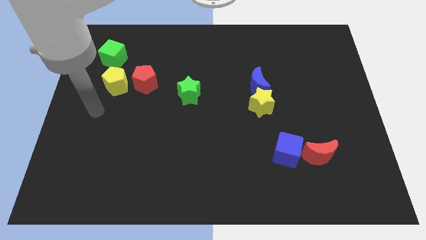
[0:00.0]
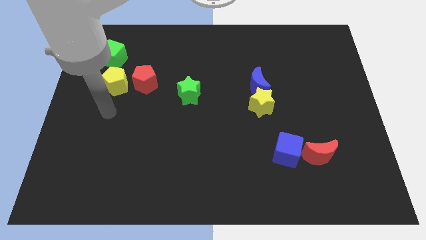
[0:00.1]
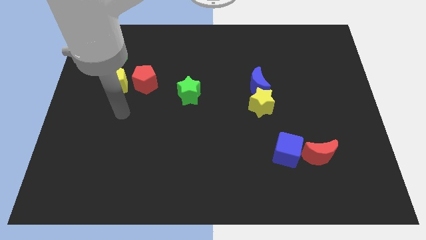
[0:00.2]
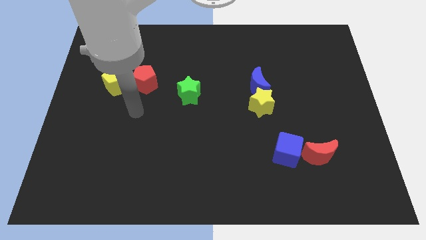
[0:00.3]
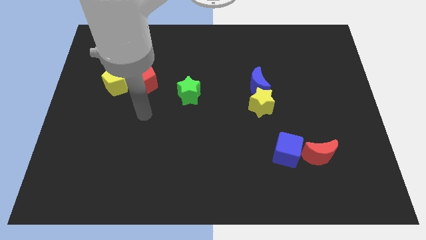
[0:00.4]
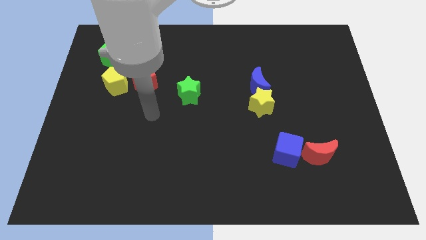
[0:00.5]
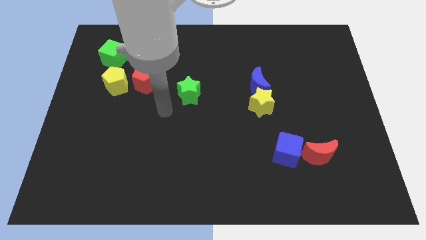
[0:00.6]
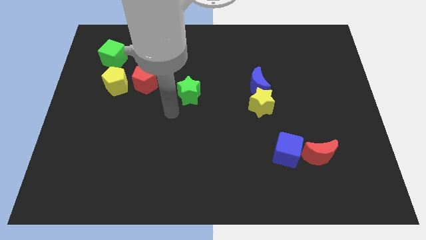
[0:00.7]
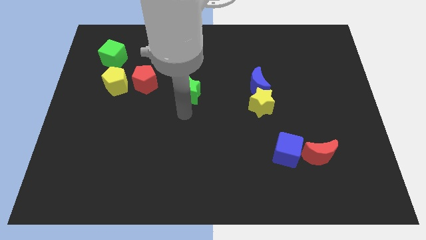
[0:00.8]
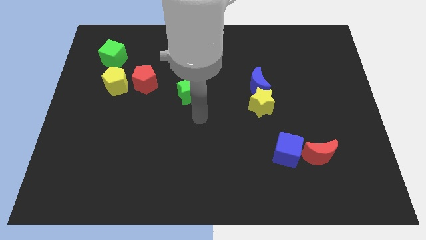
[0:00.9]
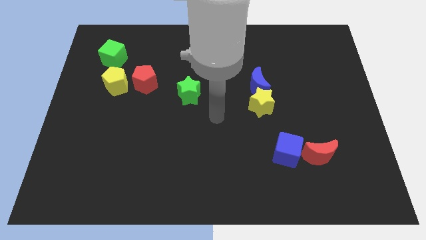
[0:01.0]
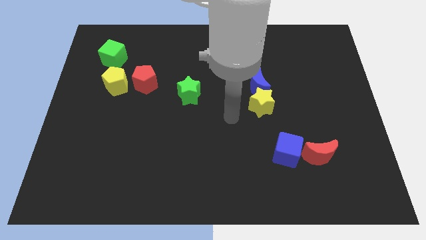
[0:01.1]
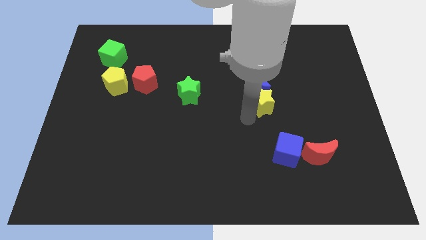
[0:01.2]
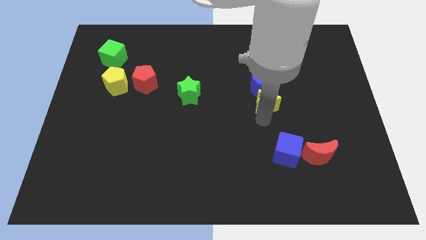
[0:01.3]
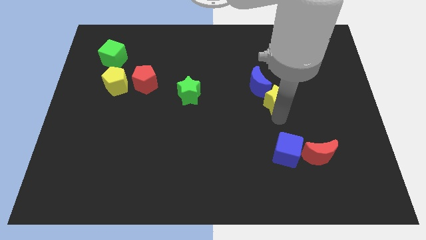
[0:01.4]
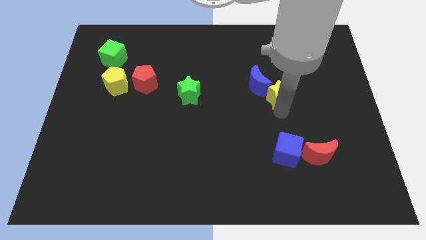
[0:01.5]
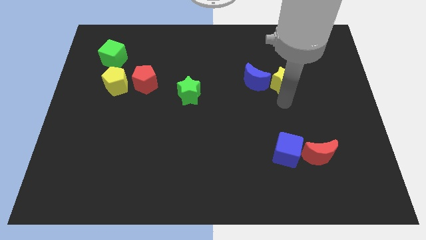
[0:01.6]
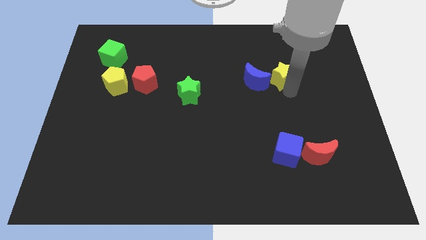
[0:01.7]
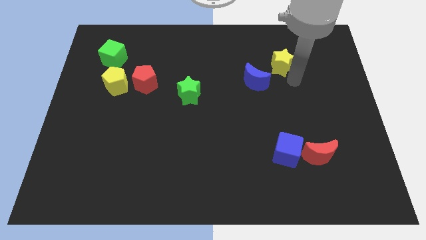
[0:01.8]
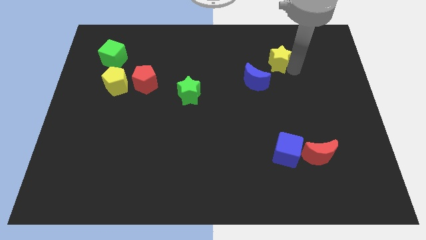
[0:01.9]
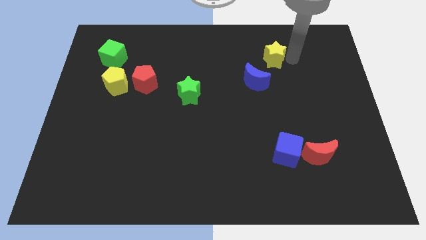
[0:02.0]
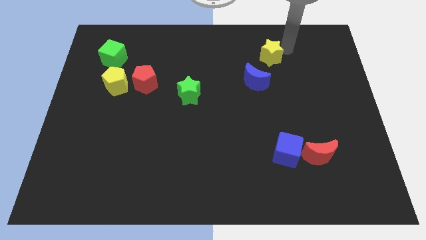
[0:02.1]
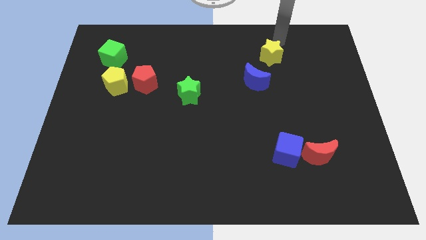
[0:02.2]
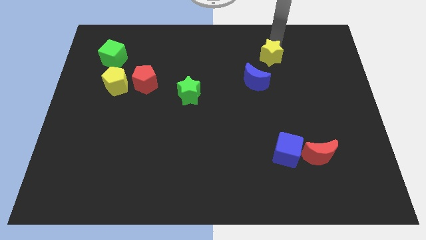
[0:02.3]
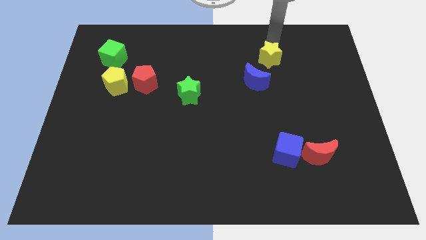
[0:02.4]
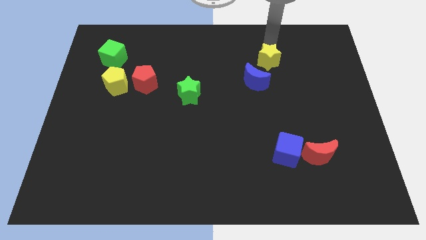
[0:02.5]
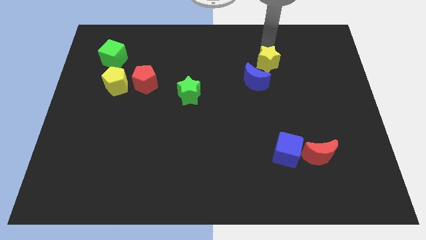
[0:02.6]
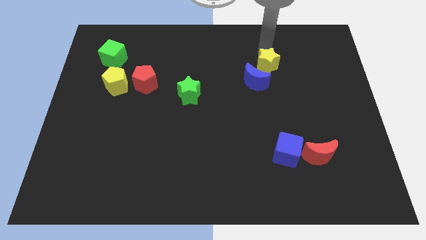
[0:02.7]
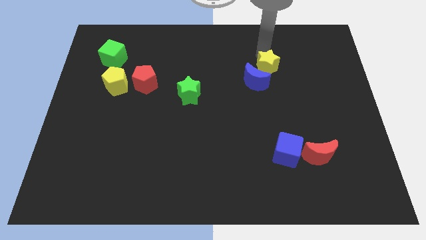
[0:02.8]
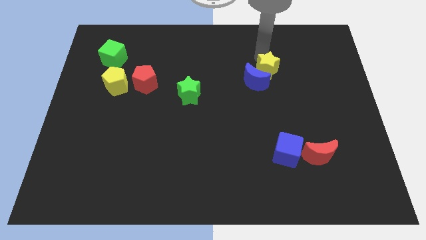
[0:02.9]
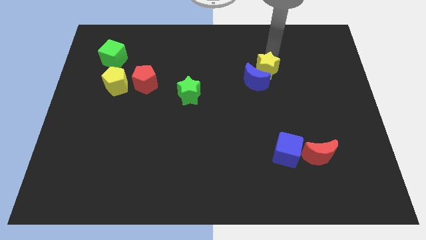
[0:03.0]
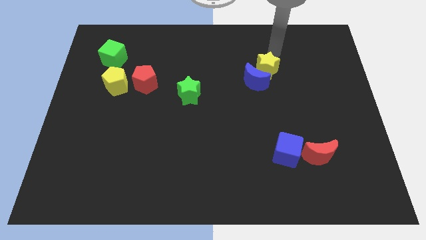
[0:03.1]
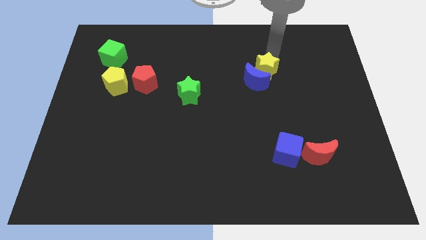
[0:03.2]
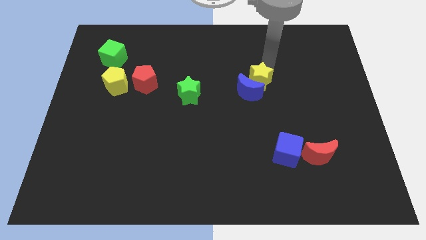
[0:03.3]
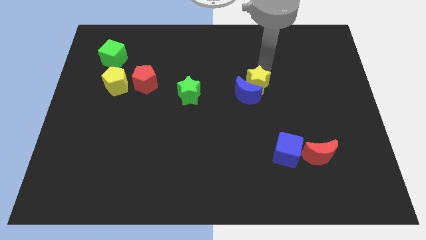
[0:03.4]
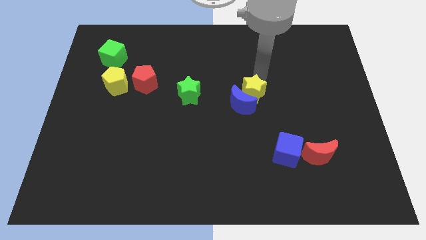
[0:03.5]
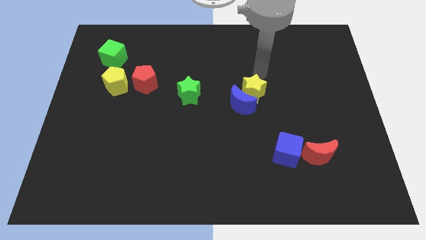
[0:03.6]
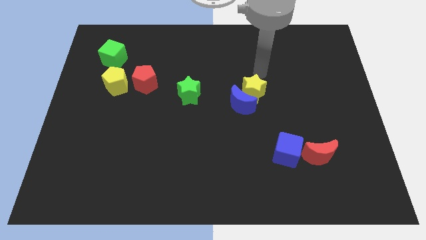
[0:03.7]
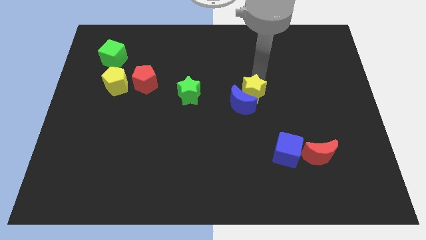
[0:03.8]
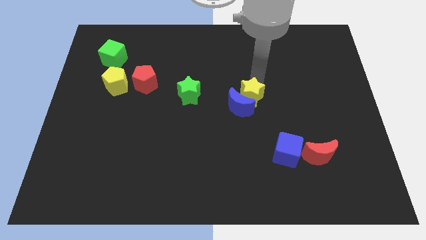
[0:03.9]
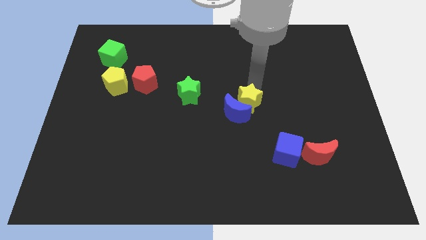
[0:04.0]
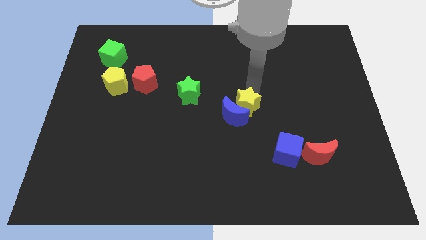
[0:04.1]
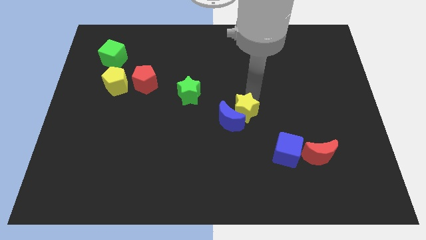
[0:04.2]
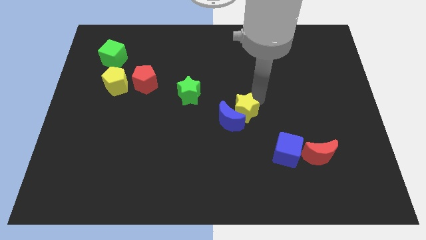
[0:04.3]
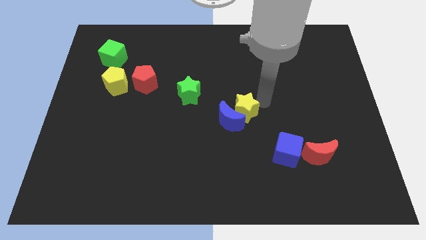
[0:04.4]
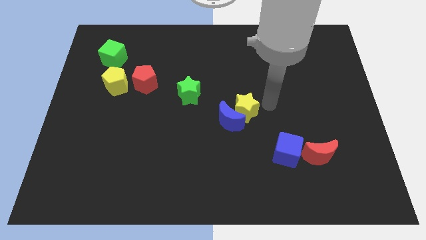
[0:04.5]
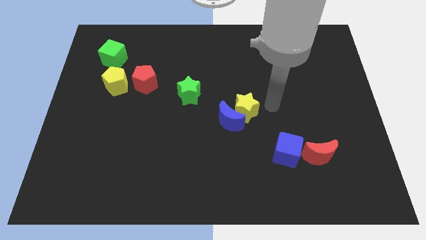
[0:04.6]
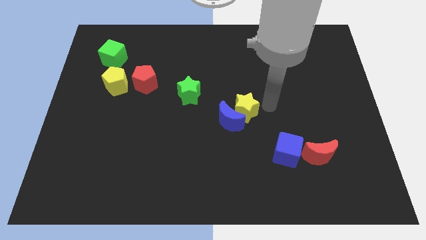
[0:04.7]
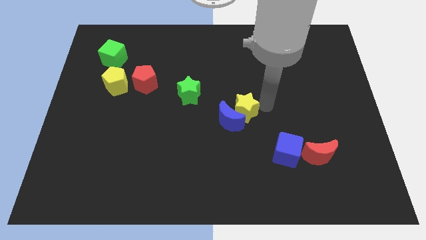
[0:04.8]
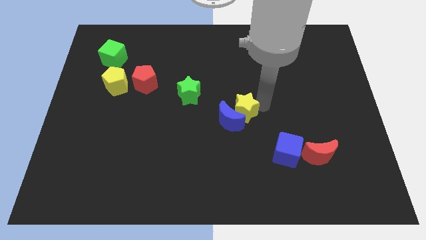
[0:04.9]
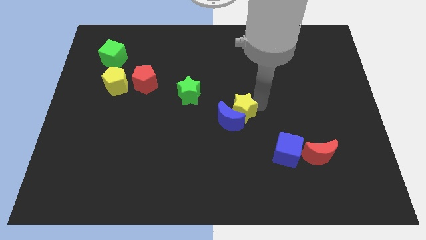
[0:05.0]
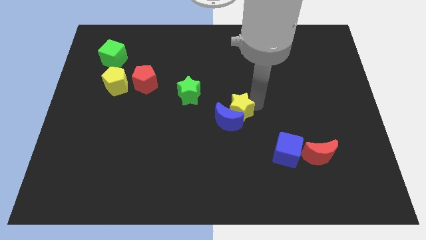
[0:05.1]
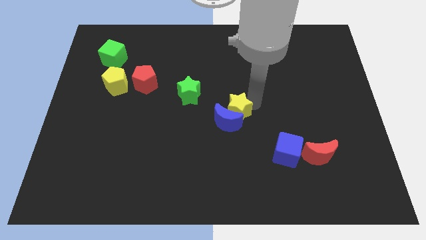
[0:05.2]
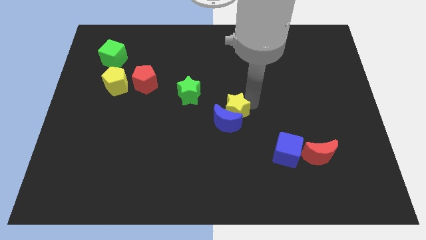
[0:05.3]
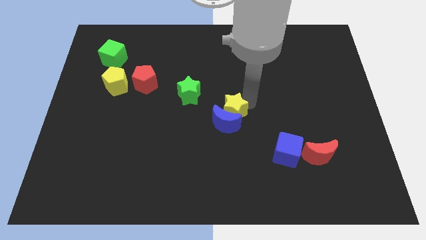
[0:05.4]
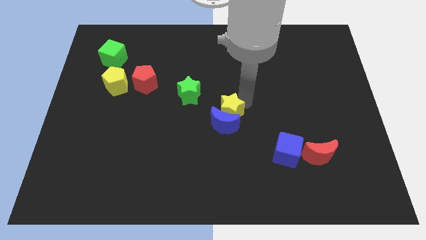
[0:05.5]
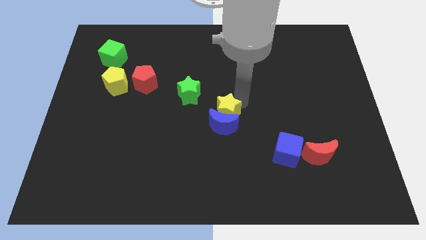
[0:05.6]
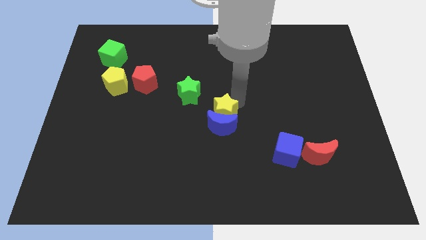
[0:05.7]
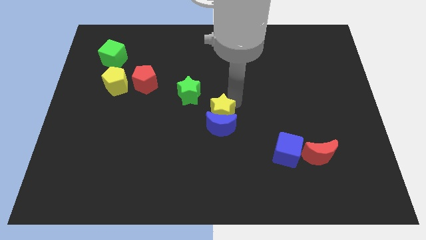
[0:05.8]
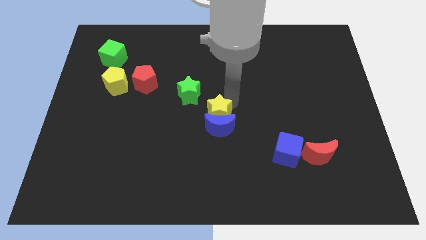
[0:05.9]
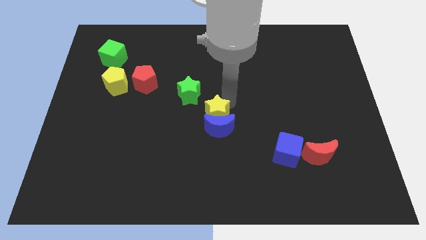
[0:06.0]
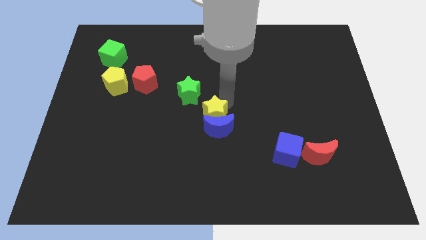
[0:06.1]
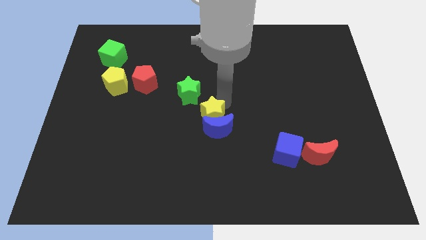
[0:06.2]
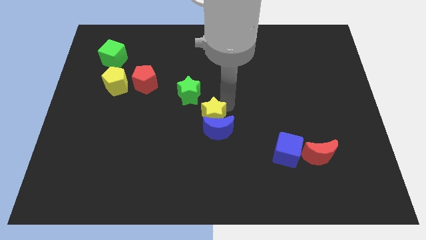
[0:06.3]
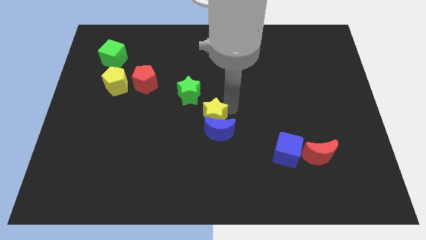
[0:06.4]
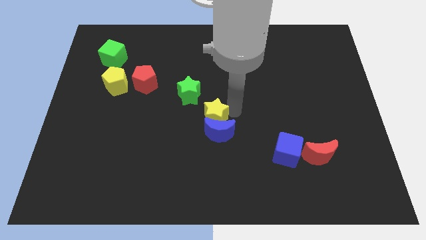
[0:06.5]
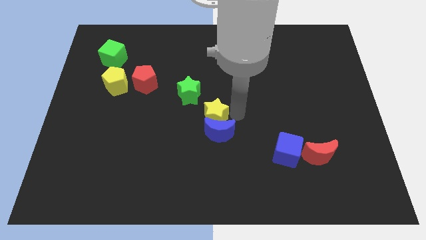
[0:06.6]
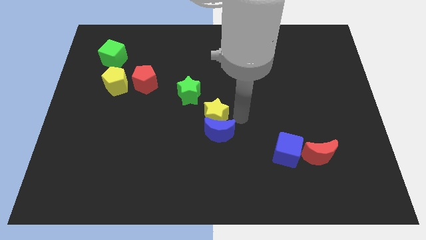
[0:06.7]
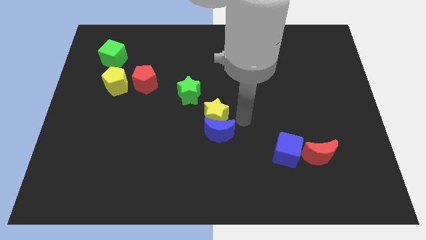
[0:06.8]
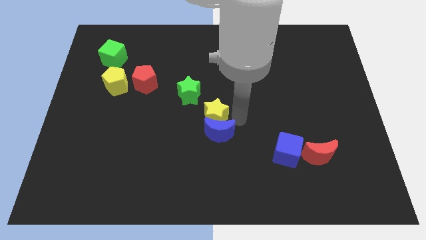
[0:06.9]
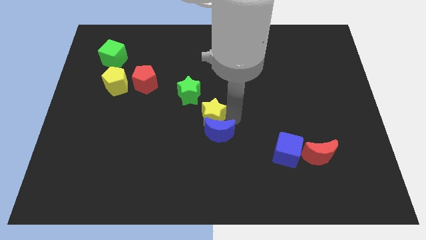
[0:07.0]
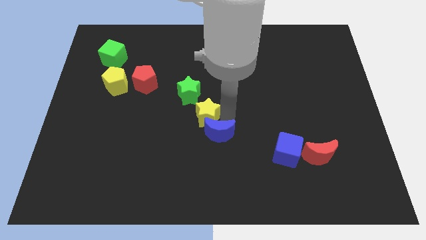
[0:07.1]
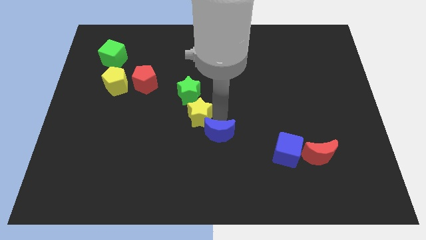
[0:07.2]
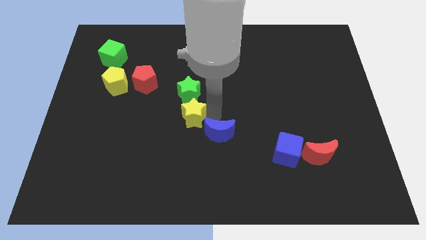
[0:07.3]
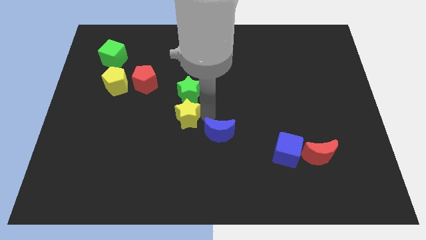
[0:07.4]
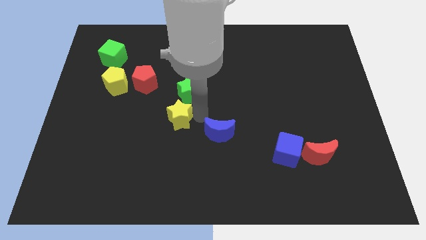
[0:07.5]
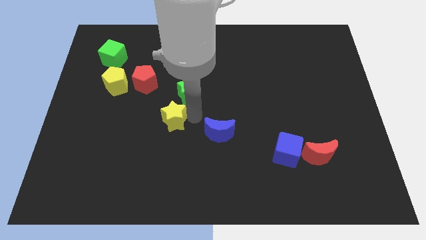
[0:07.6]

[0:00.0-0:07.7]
move the yellow star to the left

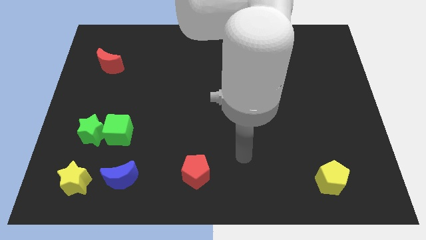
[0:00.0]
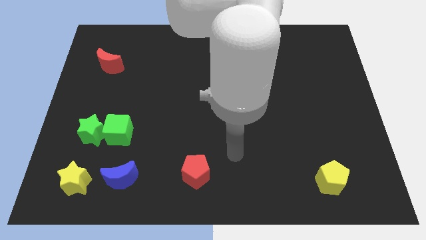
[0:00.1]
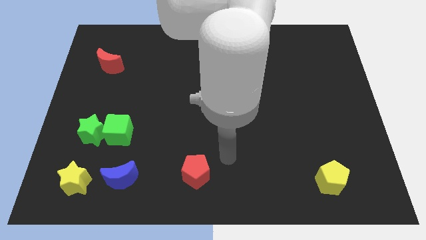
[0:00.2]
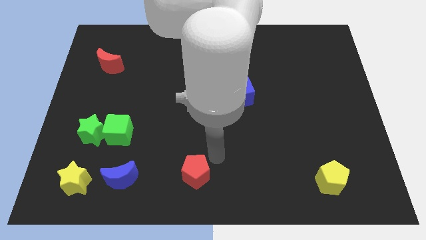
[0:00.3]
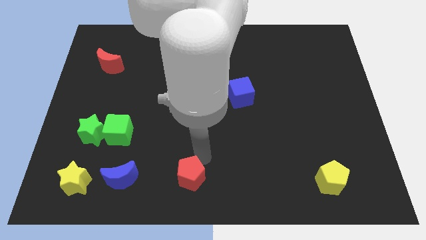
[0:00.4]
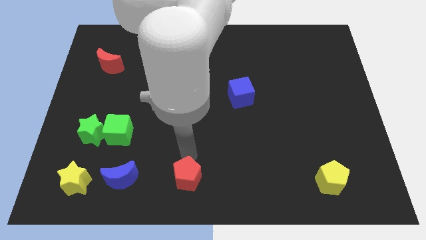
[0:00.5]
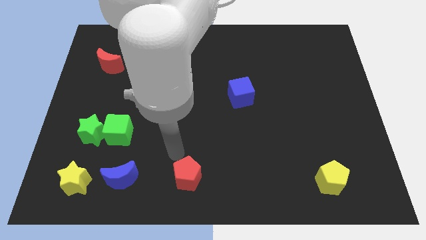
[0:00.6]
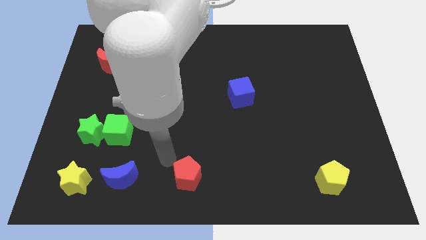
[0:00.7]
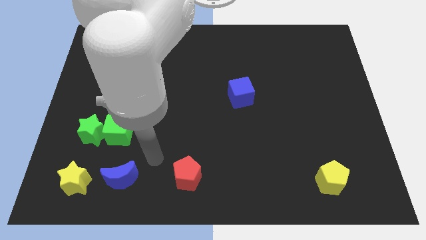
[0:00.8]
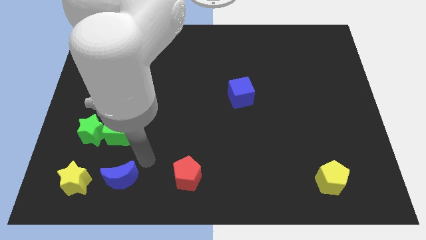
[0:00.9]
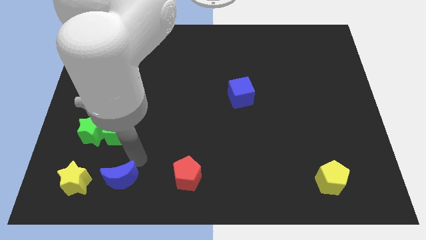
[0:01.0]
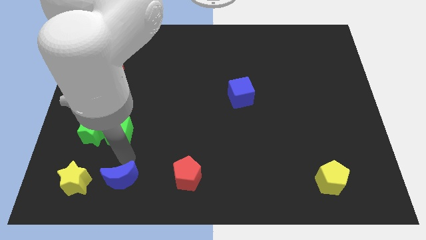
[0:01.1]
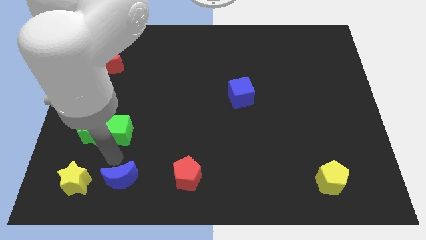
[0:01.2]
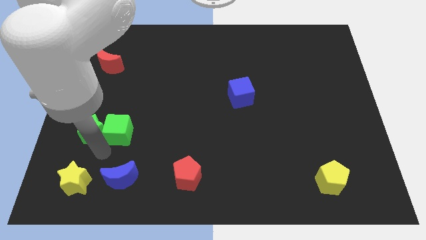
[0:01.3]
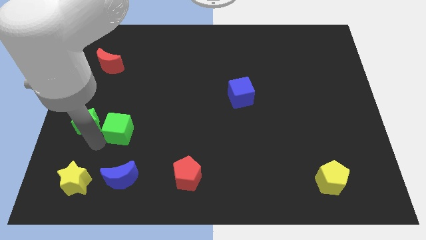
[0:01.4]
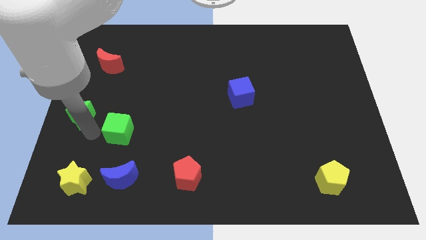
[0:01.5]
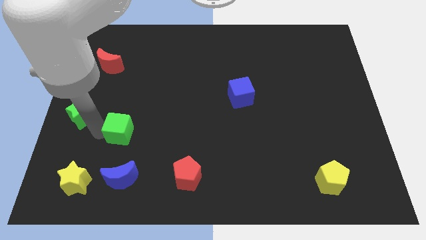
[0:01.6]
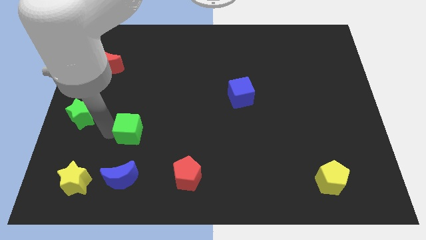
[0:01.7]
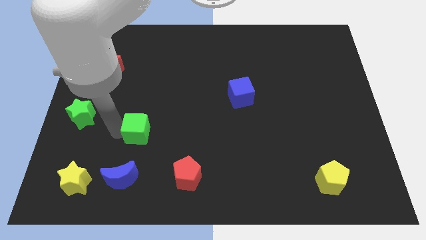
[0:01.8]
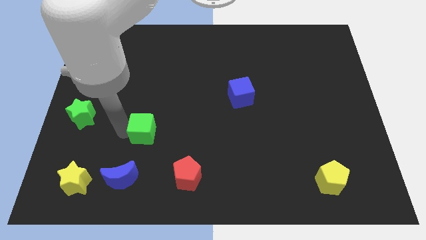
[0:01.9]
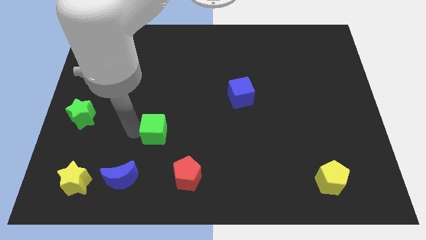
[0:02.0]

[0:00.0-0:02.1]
slightly push the green cube right
